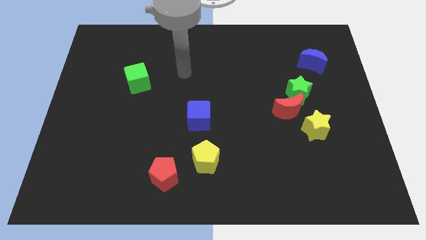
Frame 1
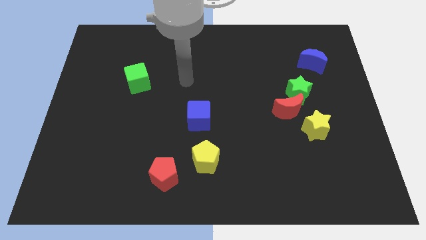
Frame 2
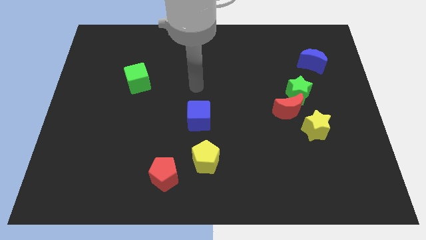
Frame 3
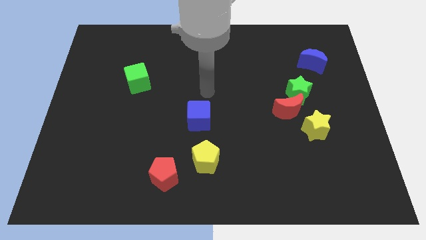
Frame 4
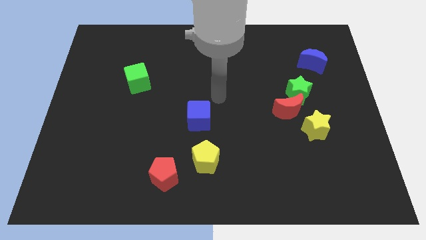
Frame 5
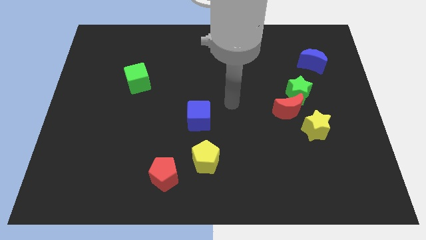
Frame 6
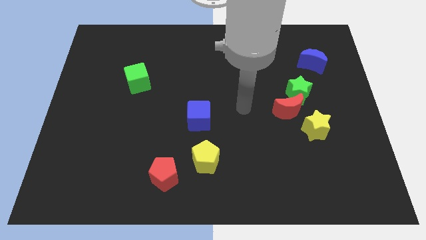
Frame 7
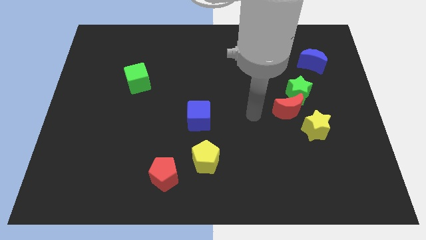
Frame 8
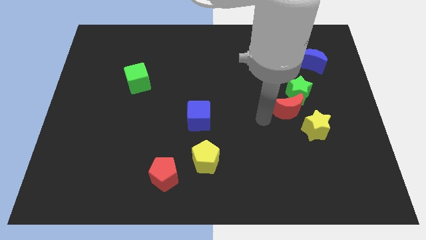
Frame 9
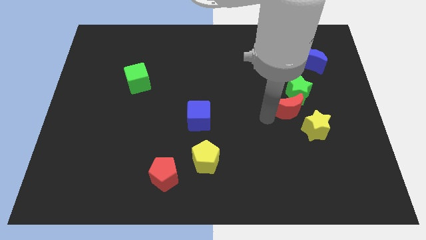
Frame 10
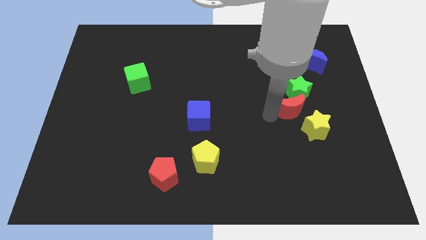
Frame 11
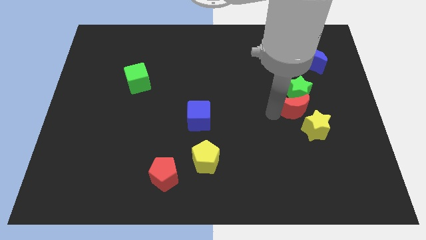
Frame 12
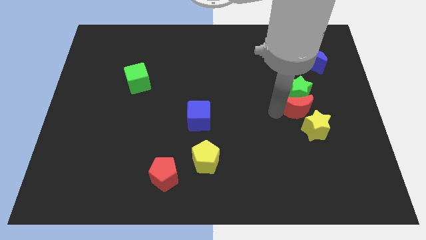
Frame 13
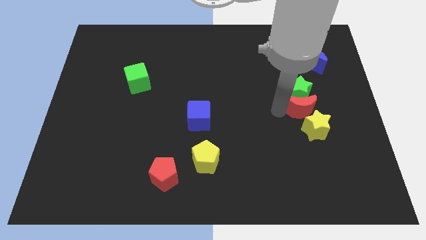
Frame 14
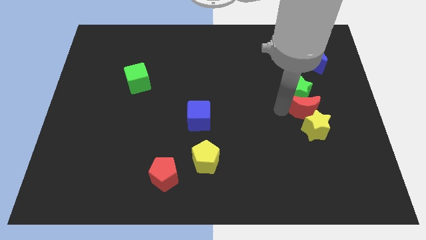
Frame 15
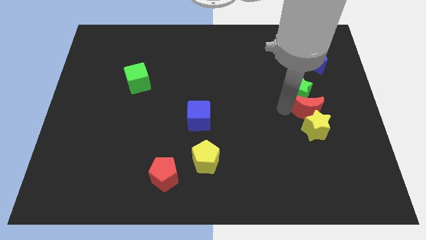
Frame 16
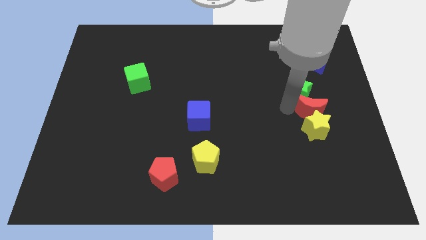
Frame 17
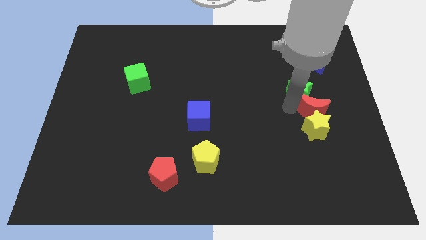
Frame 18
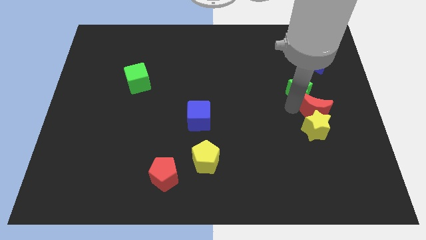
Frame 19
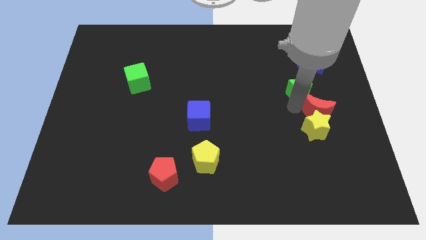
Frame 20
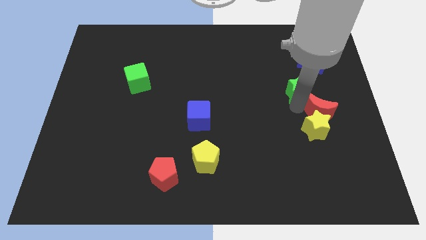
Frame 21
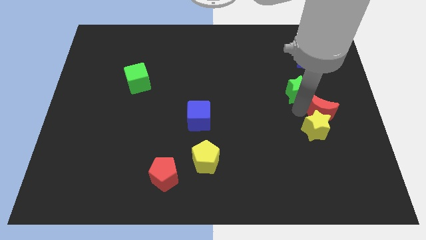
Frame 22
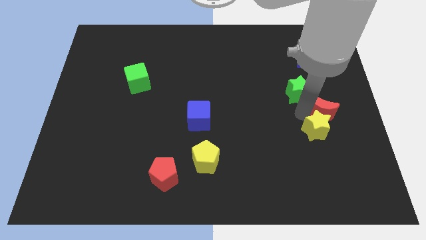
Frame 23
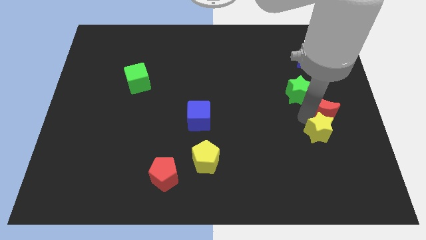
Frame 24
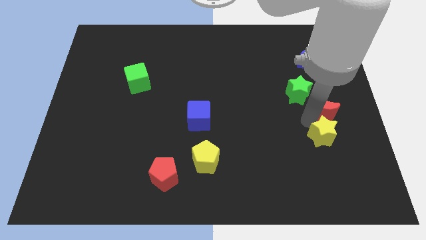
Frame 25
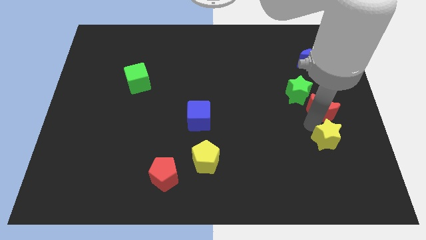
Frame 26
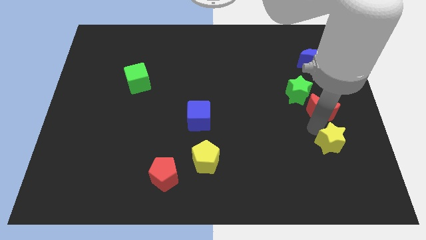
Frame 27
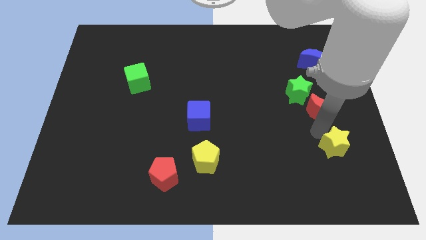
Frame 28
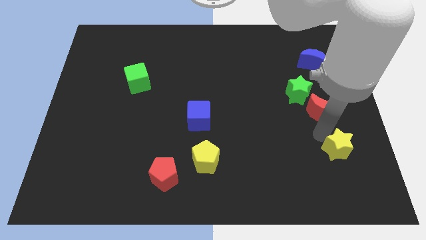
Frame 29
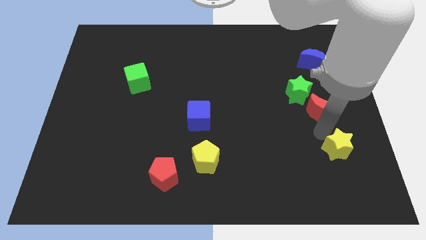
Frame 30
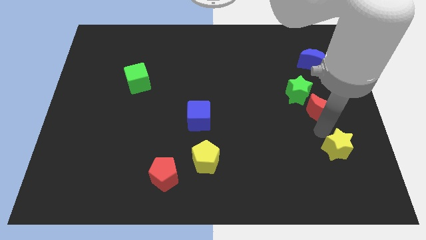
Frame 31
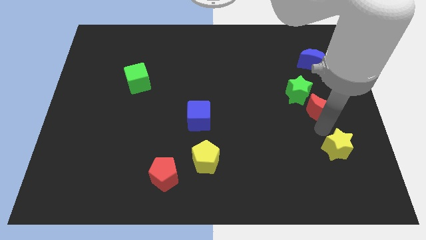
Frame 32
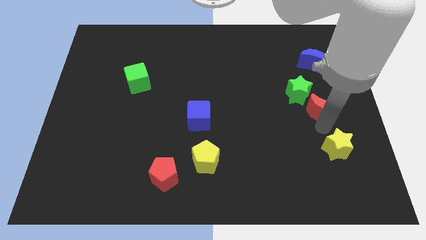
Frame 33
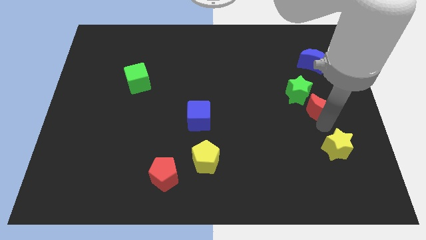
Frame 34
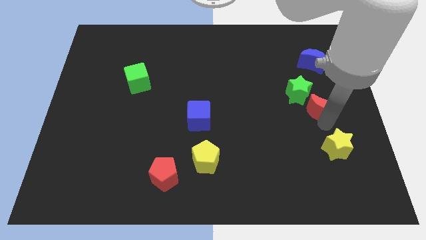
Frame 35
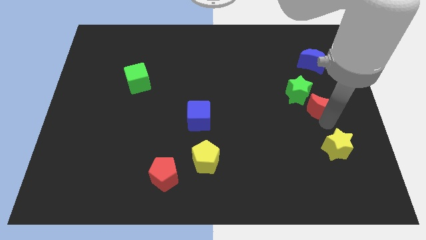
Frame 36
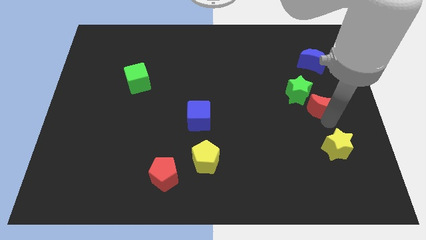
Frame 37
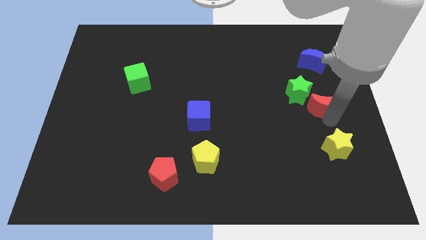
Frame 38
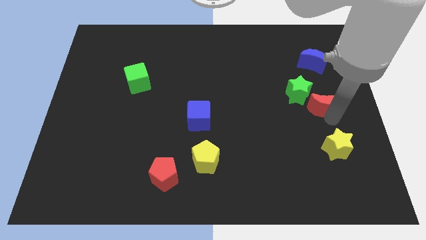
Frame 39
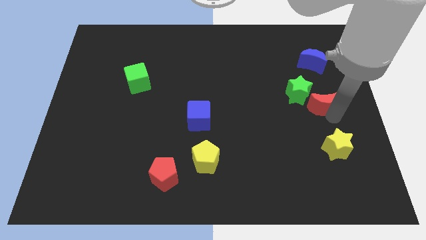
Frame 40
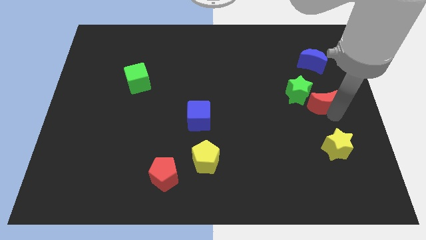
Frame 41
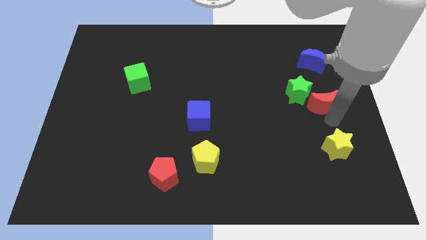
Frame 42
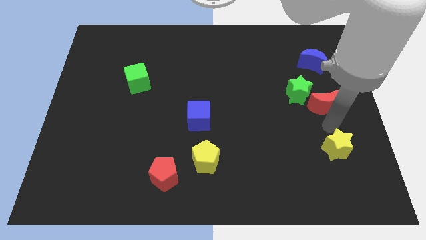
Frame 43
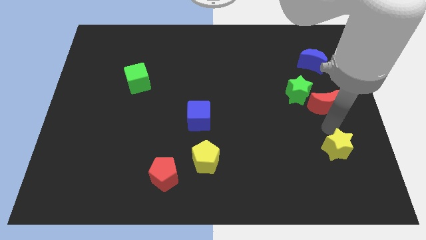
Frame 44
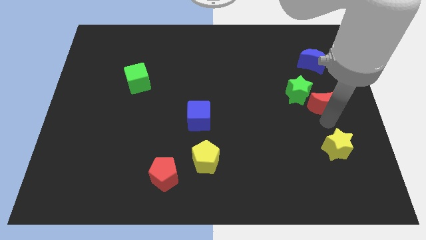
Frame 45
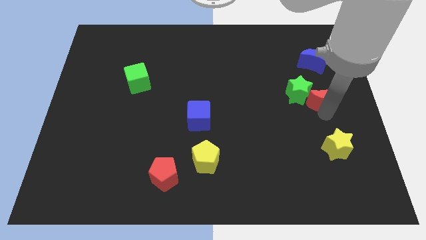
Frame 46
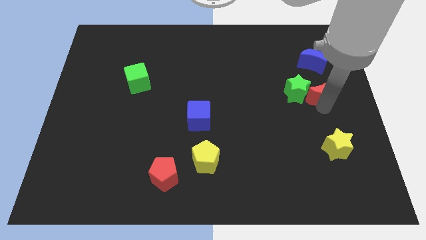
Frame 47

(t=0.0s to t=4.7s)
push the red moon diagonally up and to the right of the green star

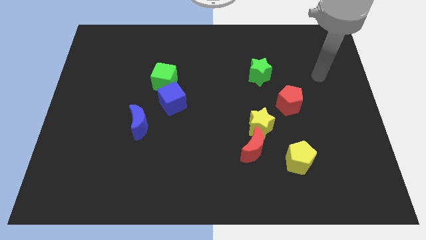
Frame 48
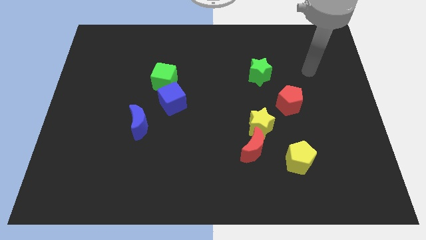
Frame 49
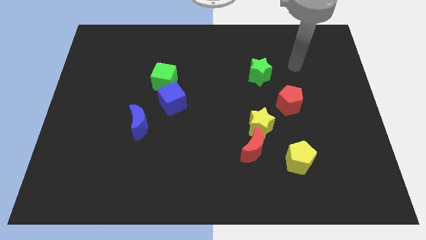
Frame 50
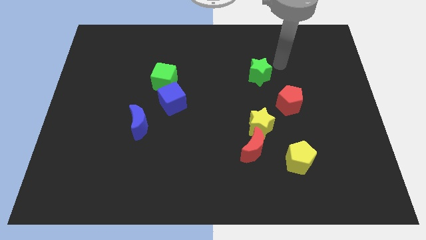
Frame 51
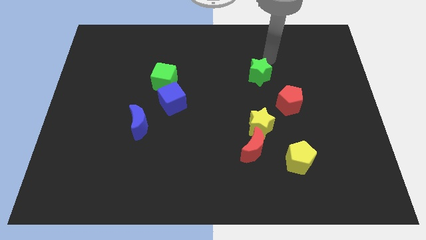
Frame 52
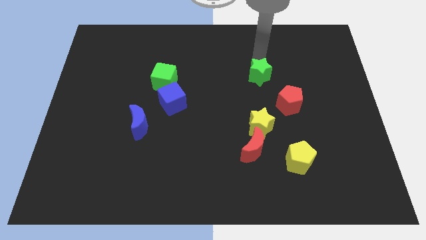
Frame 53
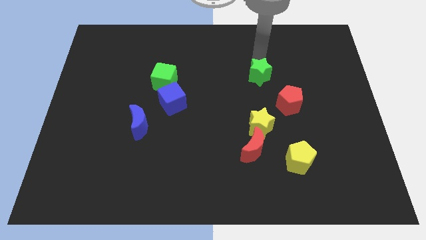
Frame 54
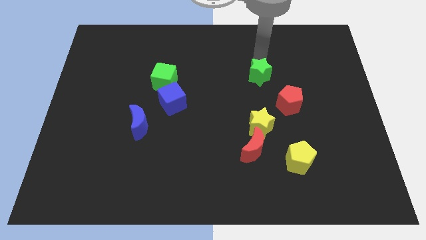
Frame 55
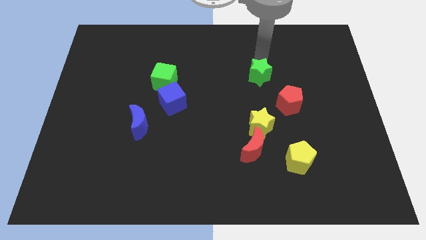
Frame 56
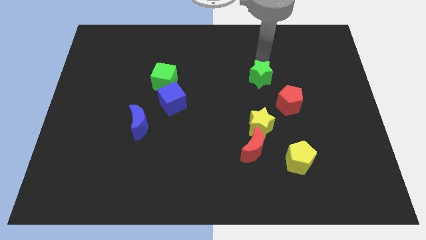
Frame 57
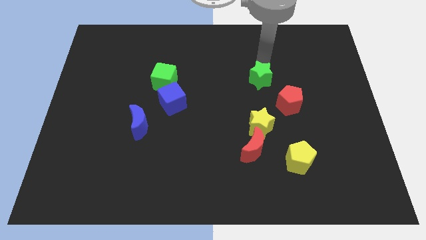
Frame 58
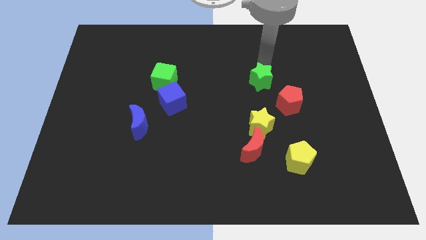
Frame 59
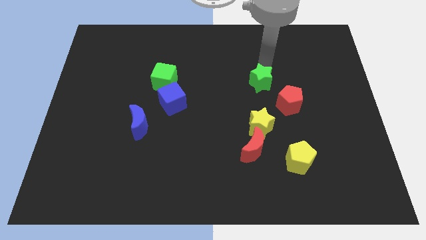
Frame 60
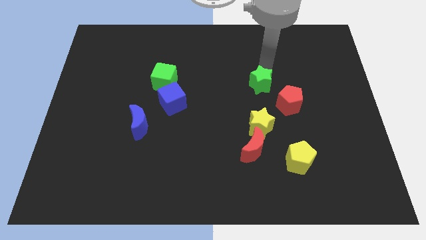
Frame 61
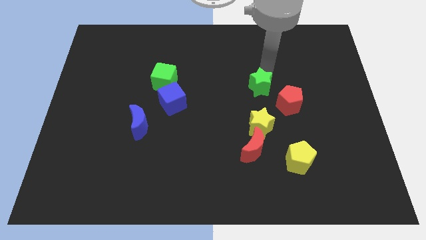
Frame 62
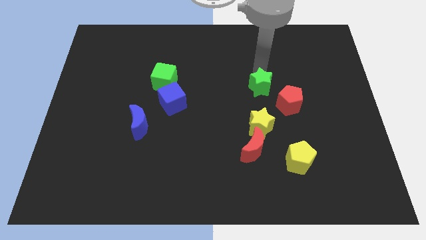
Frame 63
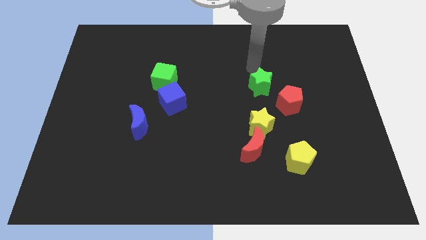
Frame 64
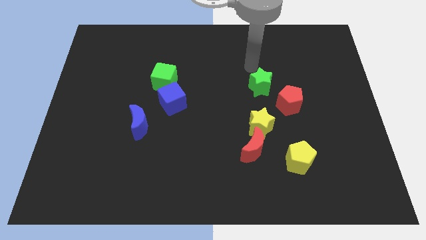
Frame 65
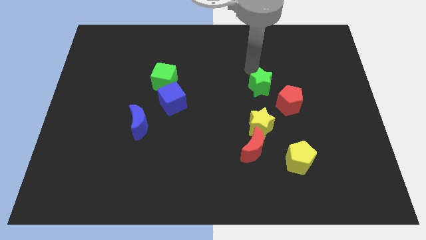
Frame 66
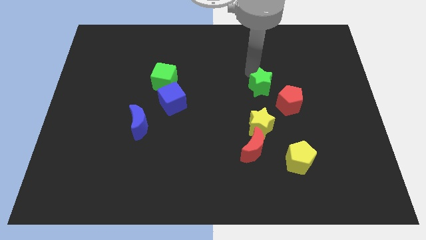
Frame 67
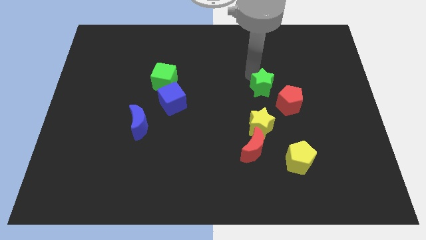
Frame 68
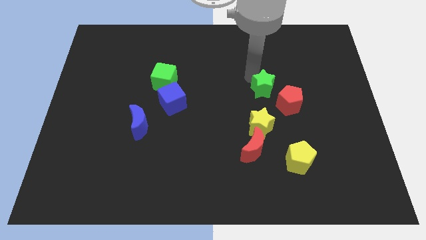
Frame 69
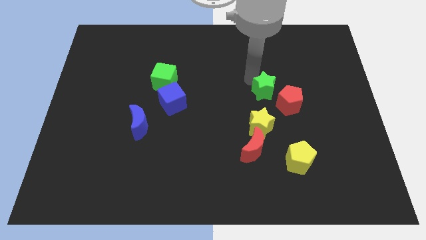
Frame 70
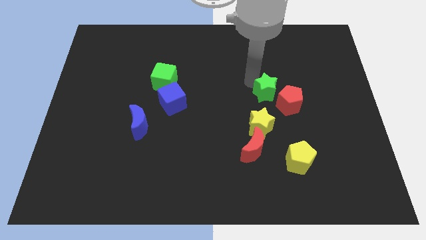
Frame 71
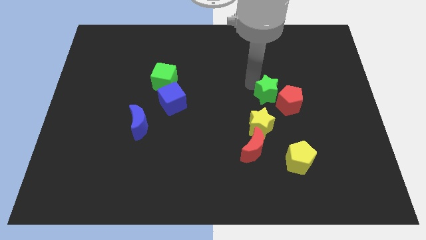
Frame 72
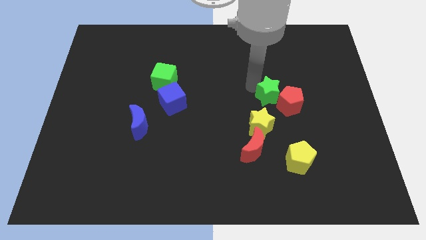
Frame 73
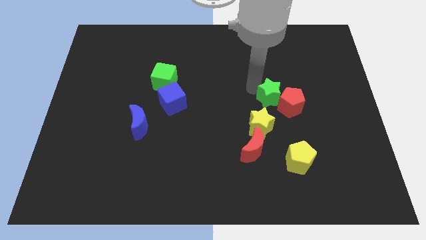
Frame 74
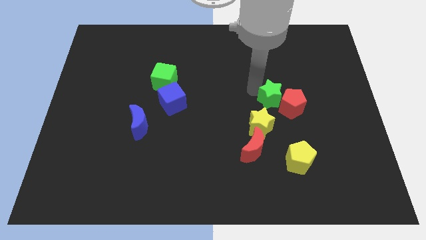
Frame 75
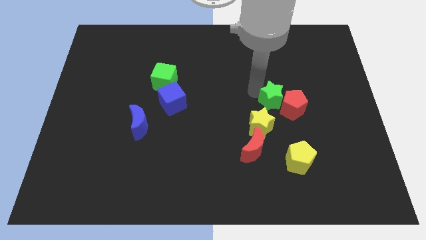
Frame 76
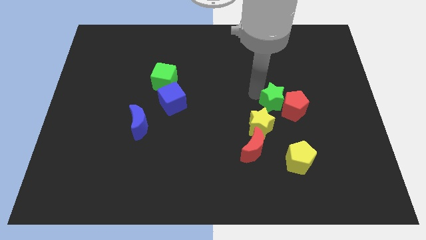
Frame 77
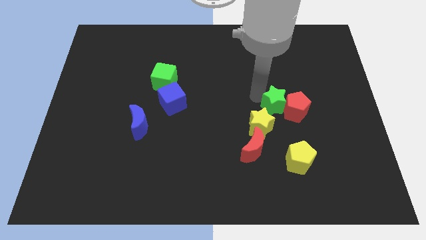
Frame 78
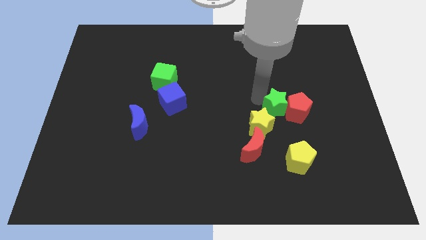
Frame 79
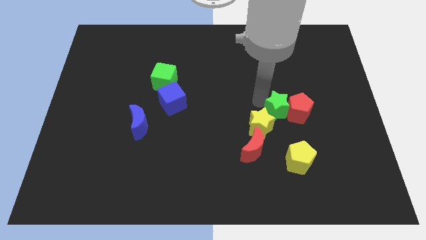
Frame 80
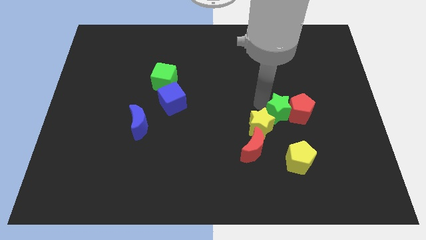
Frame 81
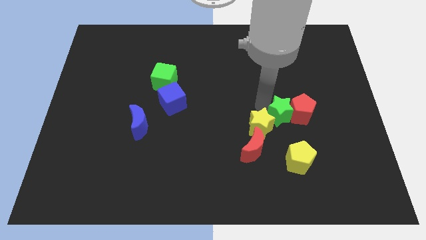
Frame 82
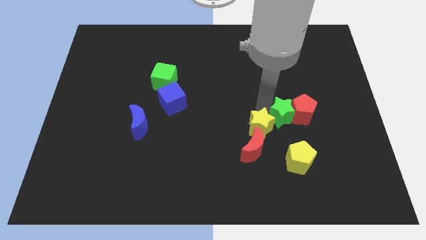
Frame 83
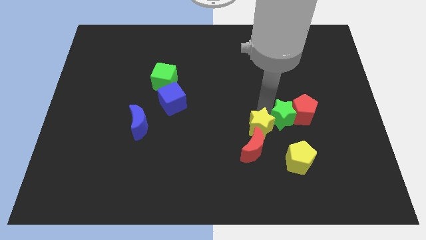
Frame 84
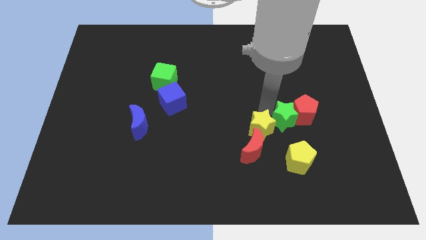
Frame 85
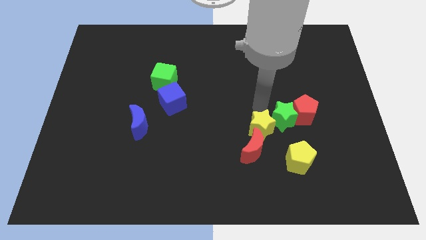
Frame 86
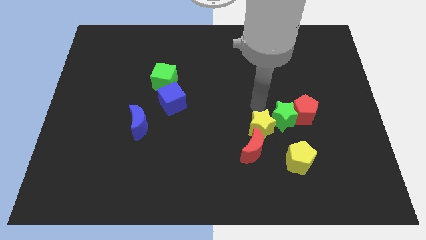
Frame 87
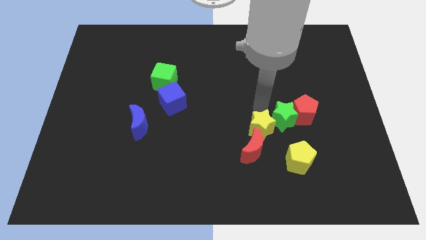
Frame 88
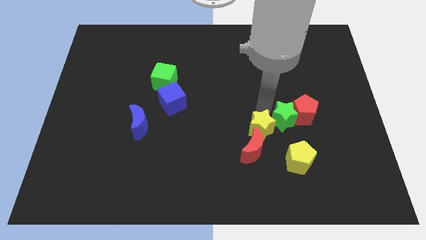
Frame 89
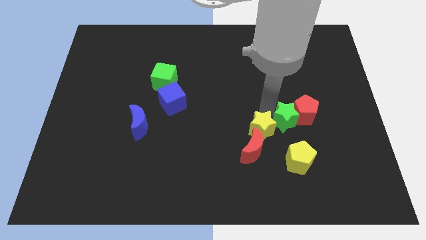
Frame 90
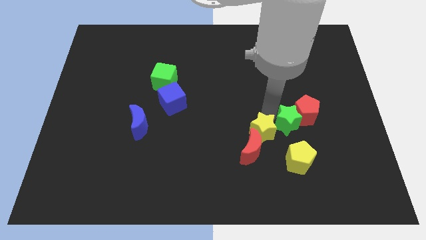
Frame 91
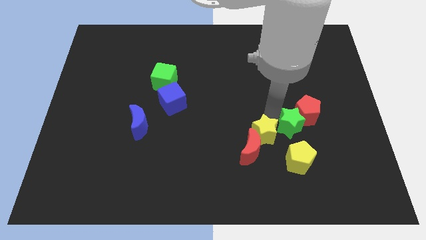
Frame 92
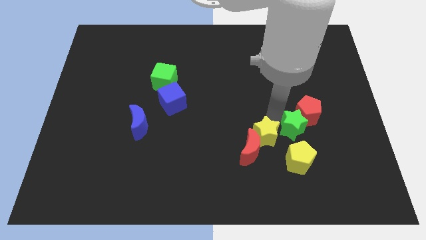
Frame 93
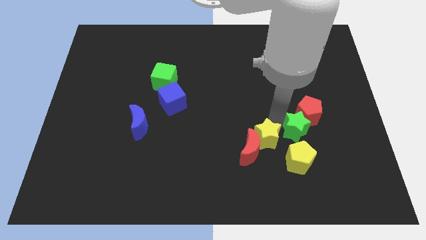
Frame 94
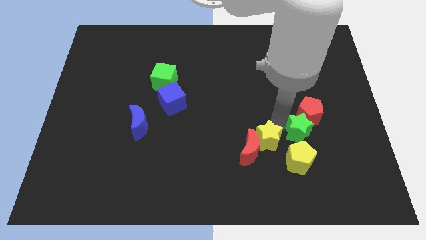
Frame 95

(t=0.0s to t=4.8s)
slide the green star diagonally up and to the right of the yellow pentagon
